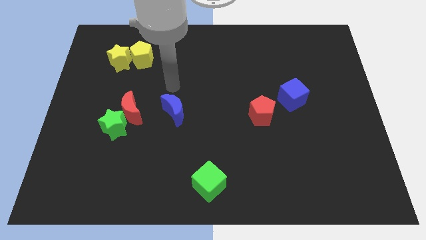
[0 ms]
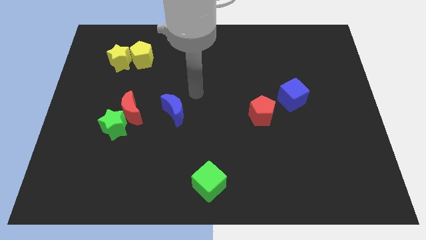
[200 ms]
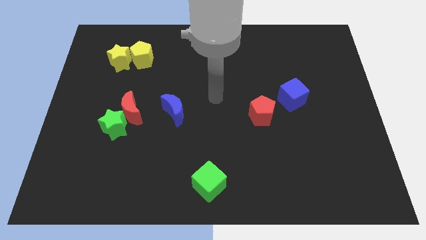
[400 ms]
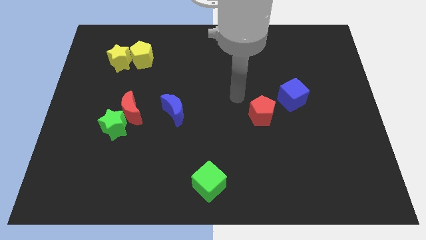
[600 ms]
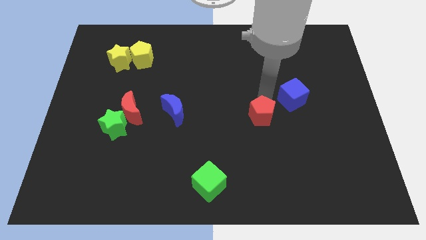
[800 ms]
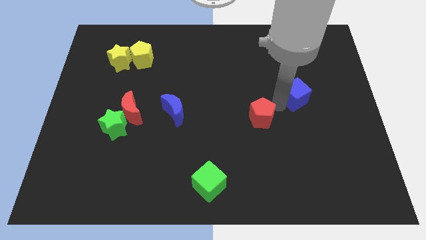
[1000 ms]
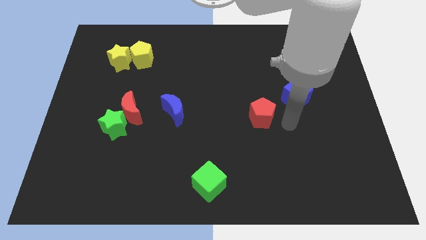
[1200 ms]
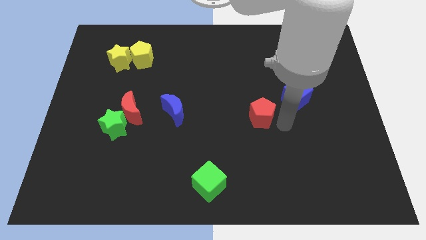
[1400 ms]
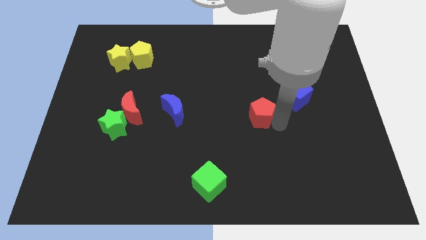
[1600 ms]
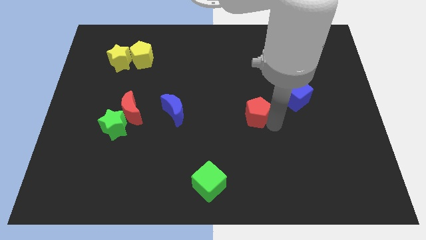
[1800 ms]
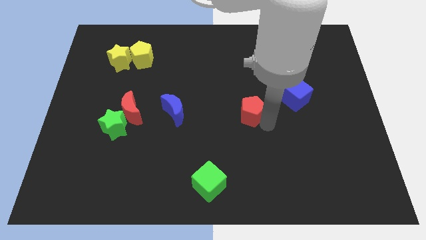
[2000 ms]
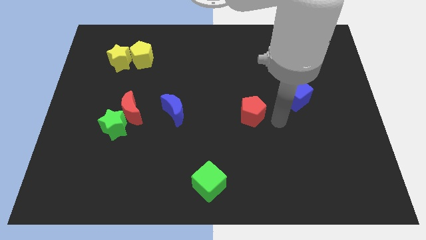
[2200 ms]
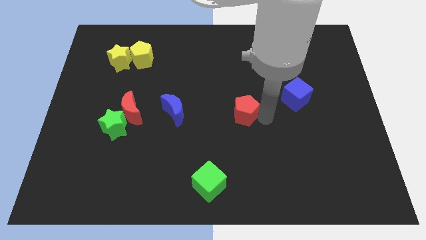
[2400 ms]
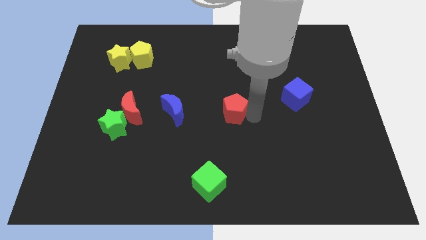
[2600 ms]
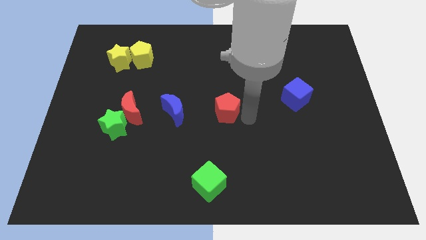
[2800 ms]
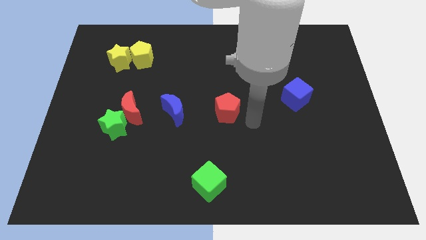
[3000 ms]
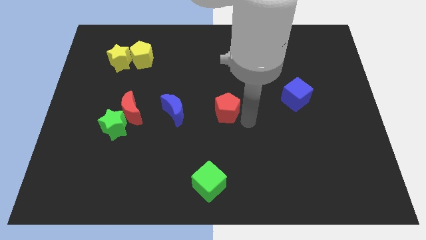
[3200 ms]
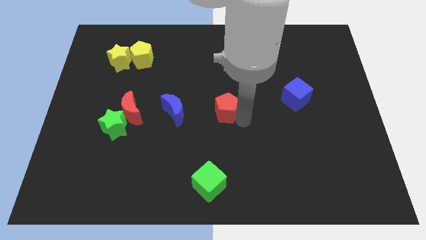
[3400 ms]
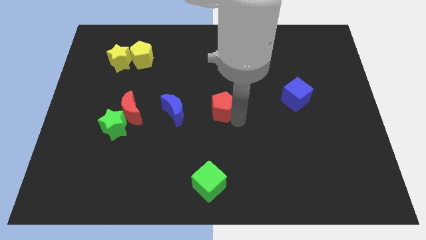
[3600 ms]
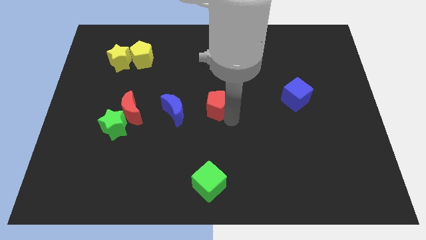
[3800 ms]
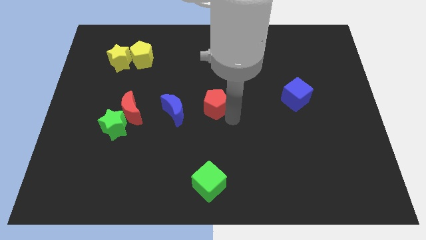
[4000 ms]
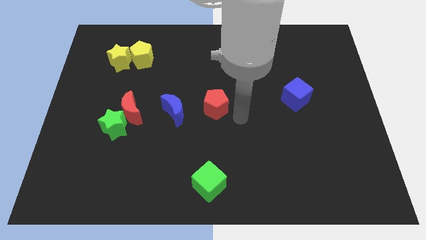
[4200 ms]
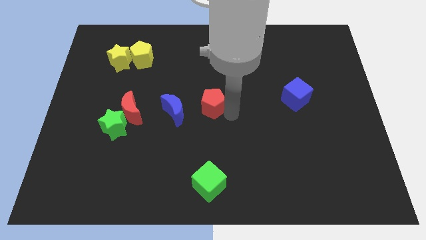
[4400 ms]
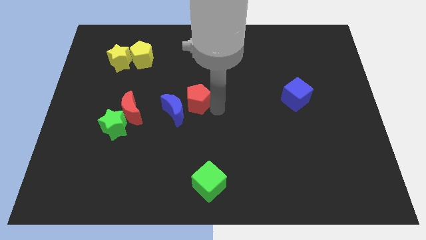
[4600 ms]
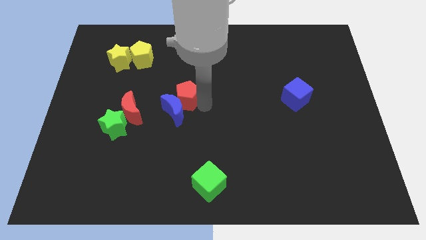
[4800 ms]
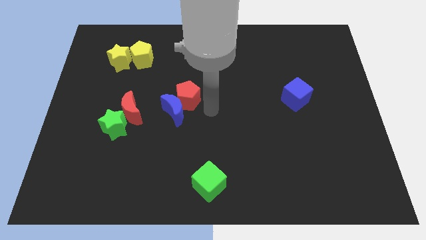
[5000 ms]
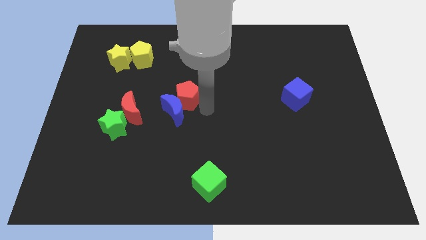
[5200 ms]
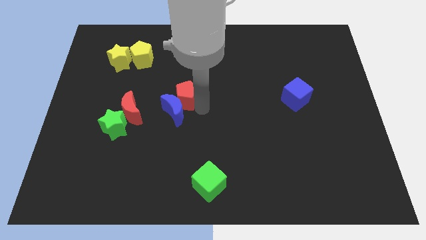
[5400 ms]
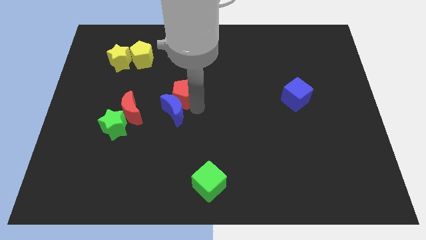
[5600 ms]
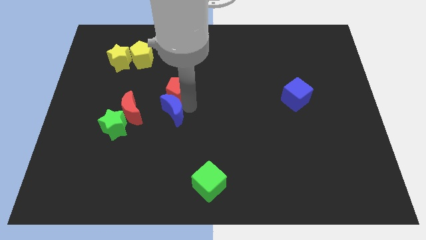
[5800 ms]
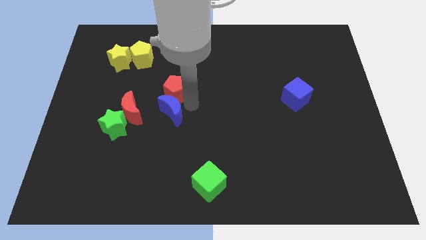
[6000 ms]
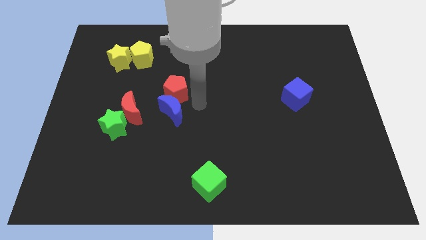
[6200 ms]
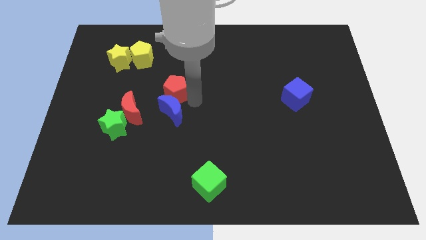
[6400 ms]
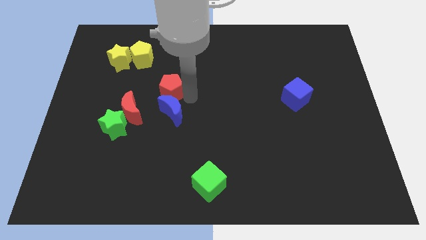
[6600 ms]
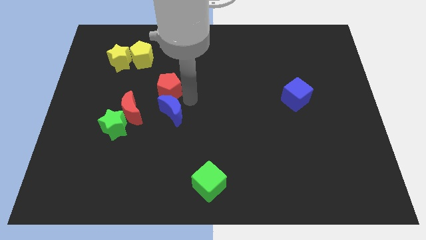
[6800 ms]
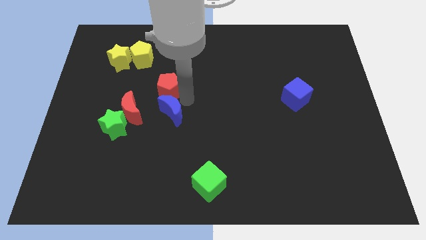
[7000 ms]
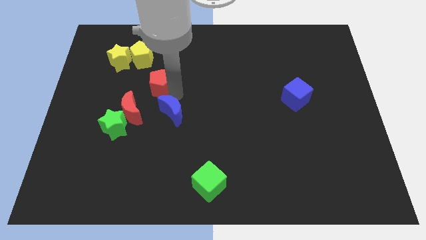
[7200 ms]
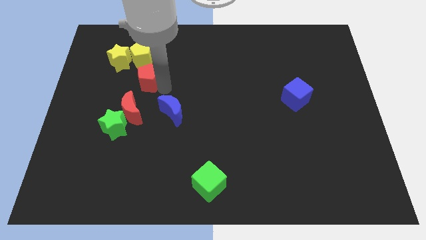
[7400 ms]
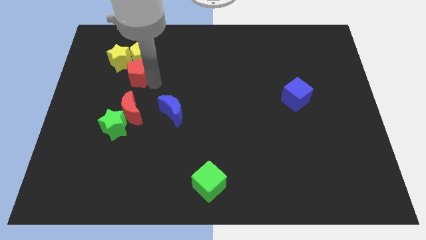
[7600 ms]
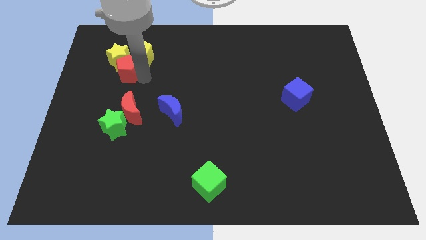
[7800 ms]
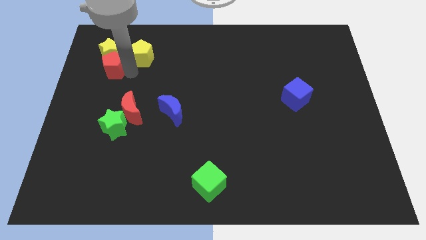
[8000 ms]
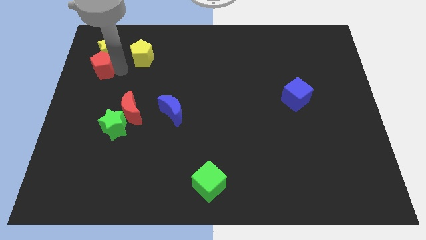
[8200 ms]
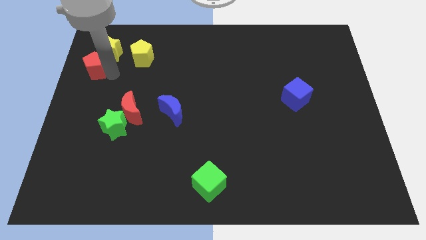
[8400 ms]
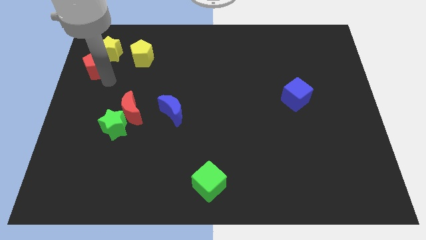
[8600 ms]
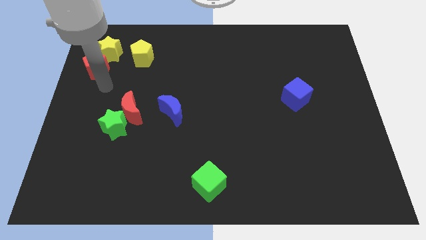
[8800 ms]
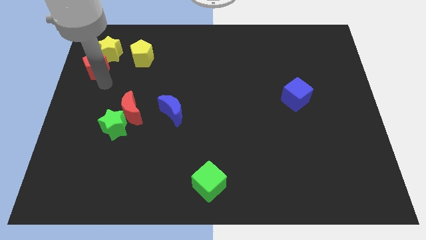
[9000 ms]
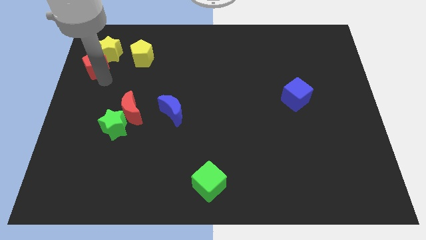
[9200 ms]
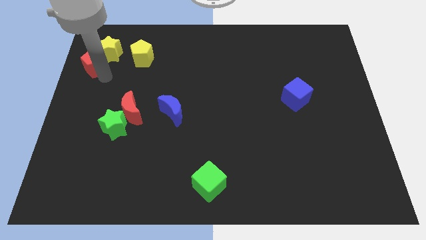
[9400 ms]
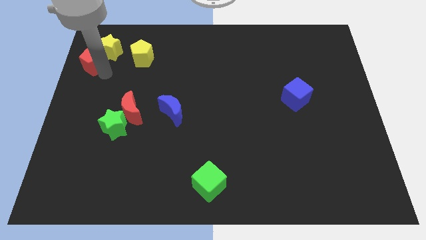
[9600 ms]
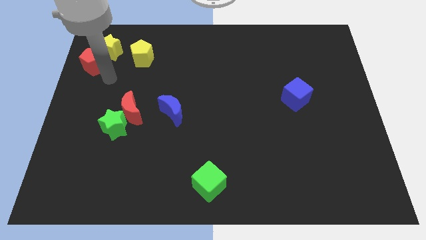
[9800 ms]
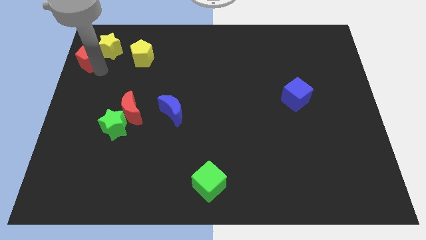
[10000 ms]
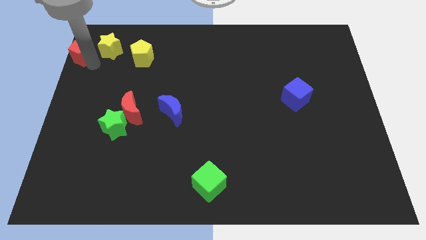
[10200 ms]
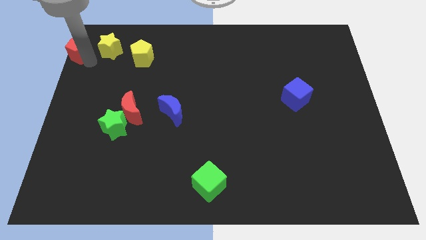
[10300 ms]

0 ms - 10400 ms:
slide the red pentagon to the top left

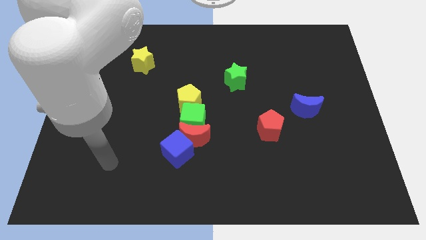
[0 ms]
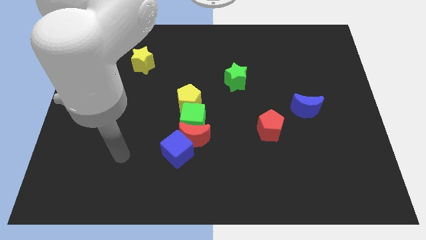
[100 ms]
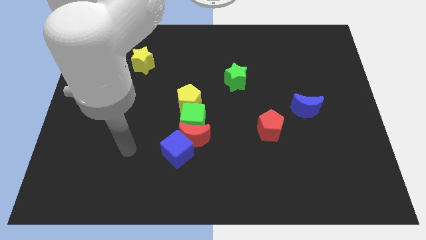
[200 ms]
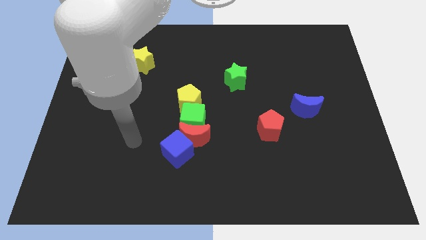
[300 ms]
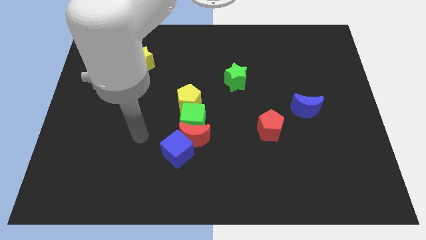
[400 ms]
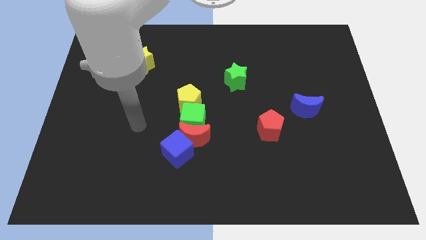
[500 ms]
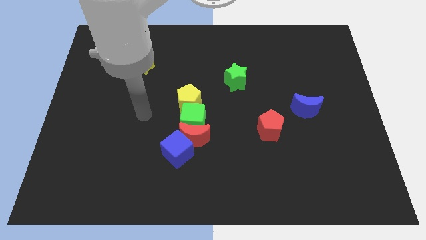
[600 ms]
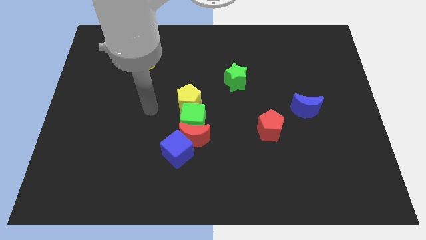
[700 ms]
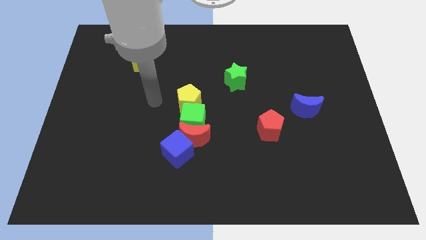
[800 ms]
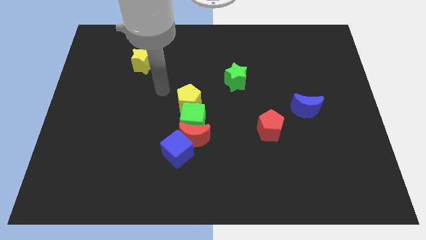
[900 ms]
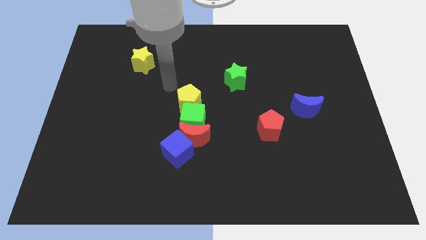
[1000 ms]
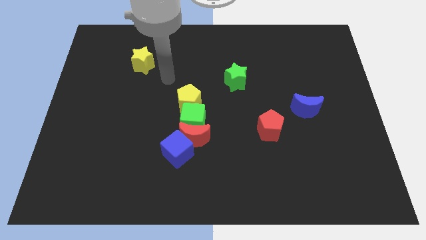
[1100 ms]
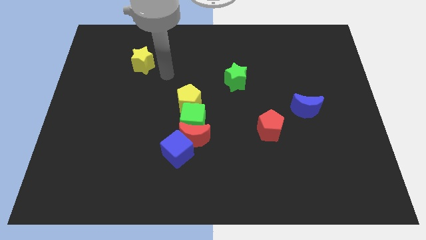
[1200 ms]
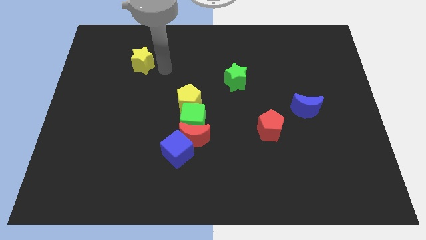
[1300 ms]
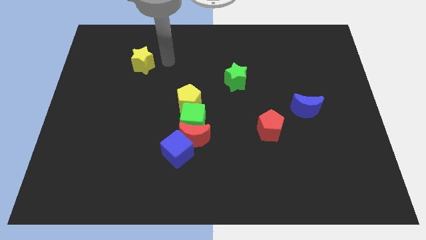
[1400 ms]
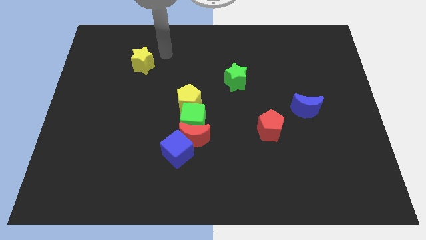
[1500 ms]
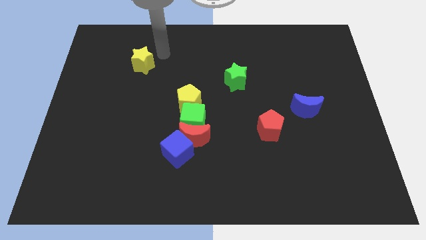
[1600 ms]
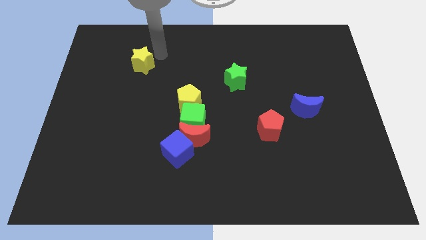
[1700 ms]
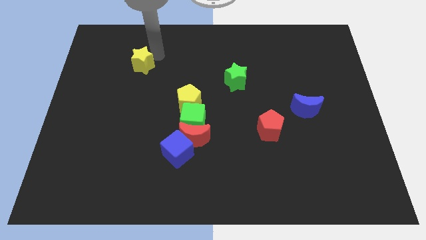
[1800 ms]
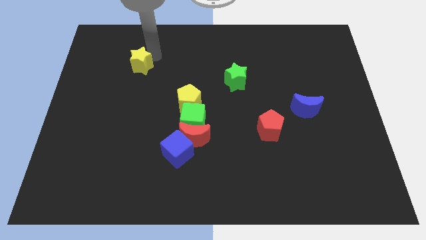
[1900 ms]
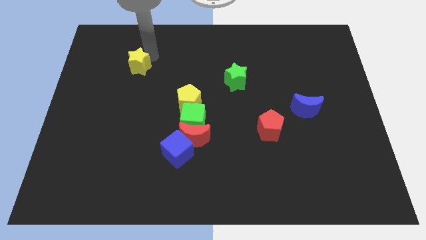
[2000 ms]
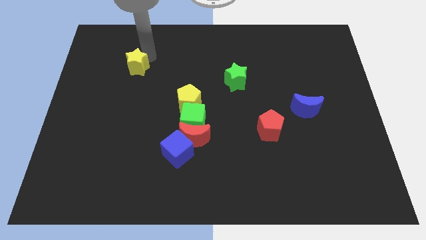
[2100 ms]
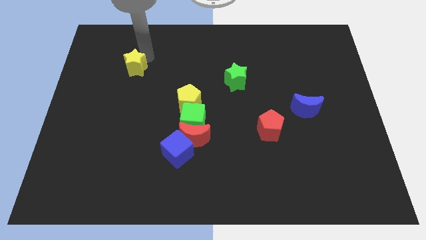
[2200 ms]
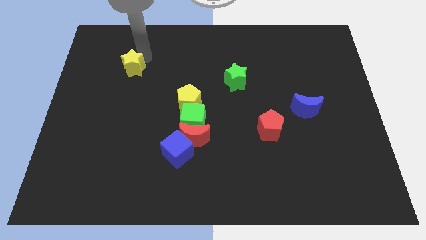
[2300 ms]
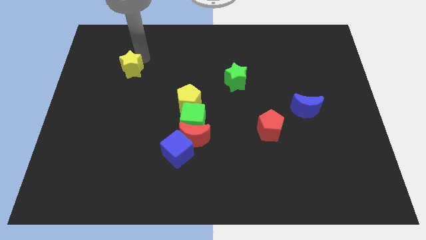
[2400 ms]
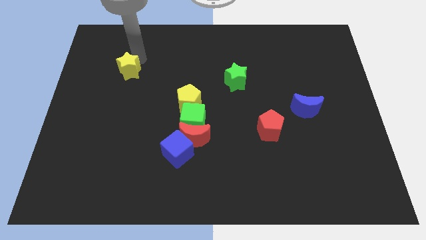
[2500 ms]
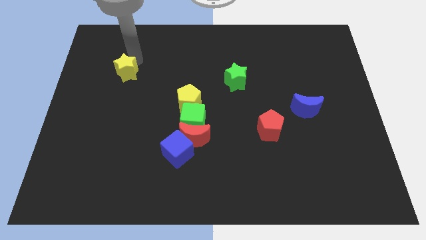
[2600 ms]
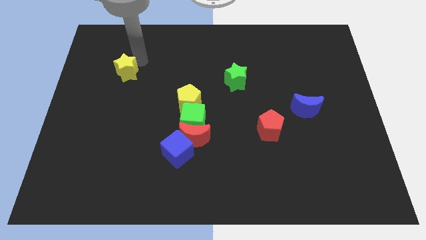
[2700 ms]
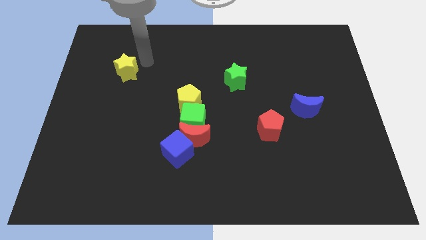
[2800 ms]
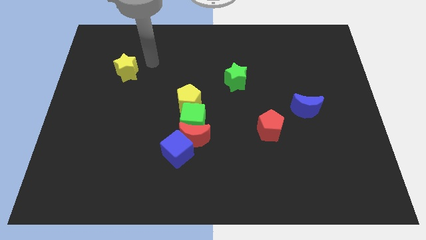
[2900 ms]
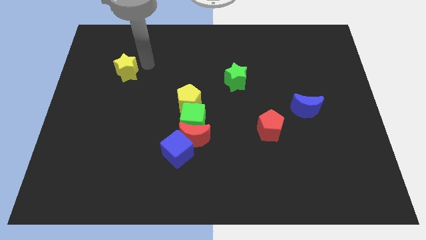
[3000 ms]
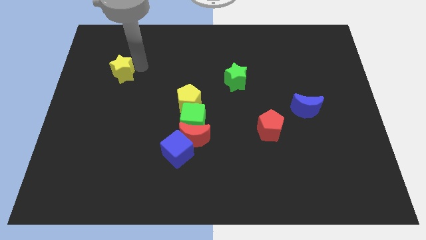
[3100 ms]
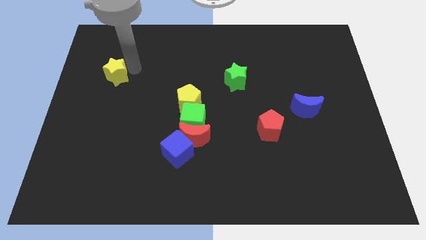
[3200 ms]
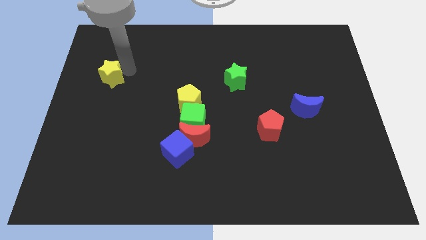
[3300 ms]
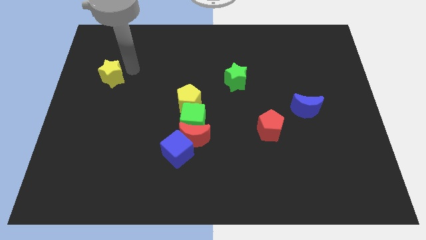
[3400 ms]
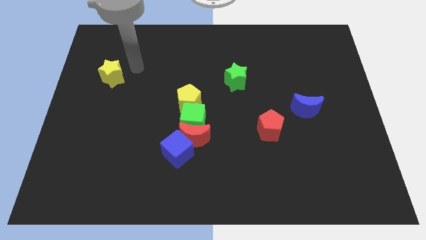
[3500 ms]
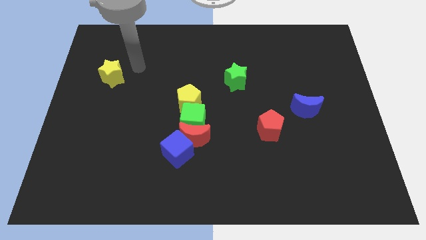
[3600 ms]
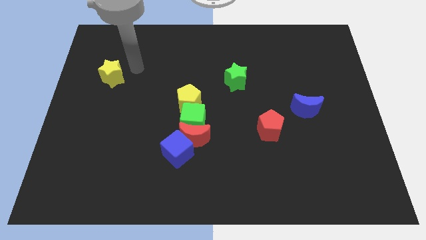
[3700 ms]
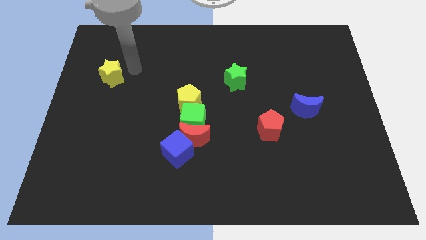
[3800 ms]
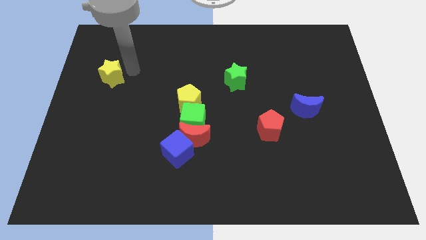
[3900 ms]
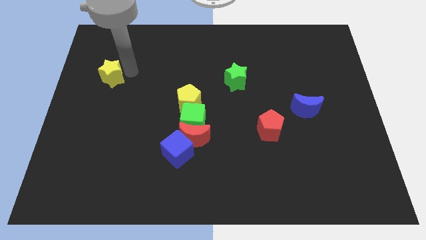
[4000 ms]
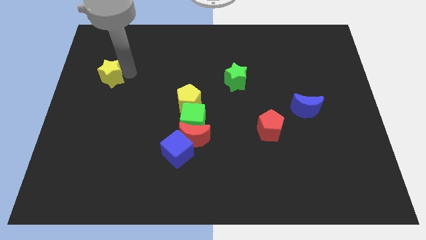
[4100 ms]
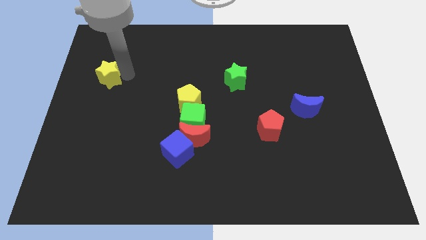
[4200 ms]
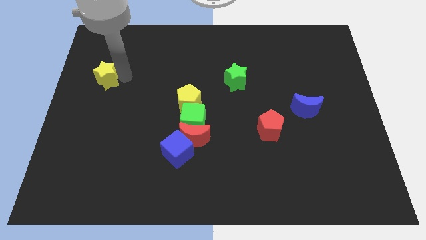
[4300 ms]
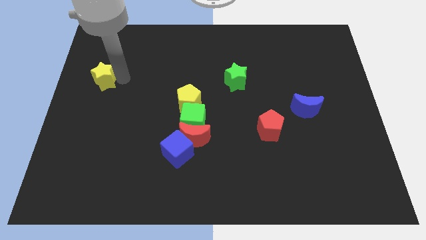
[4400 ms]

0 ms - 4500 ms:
put the yellow star to the center left
